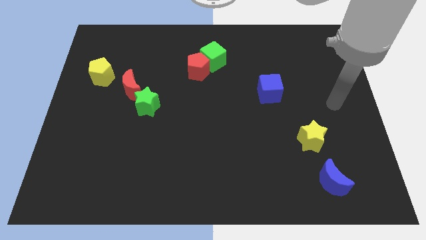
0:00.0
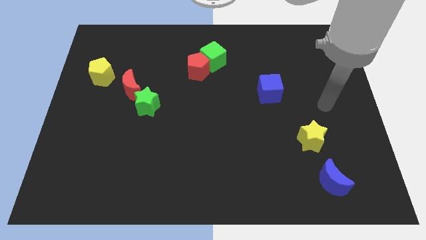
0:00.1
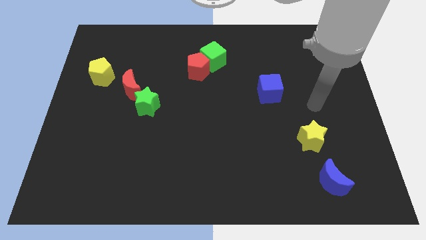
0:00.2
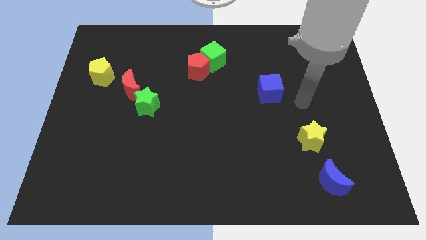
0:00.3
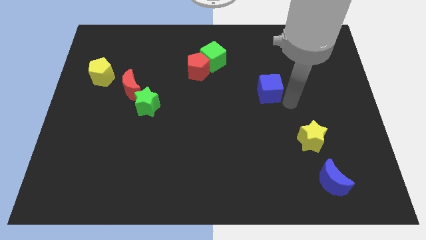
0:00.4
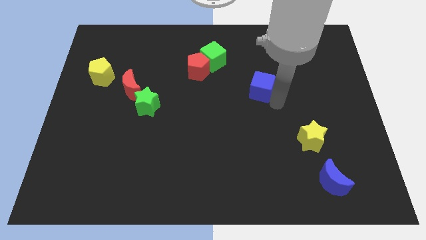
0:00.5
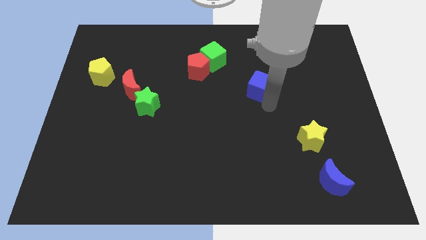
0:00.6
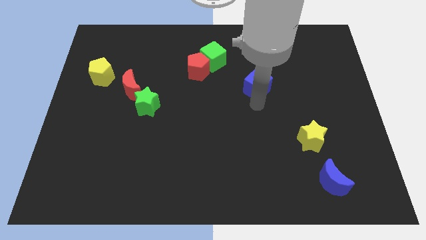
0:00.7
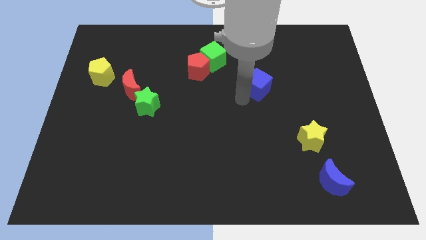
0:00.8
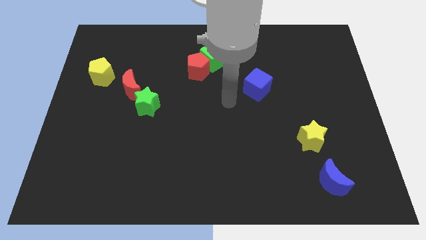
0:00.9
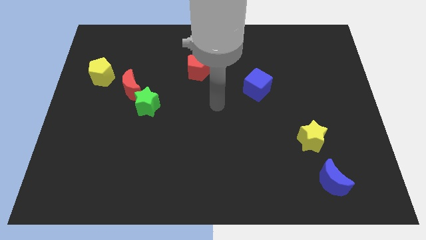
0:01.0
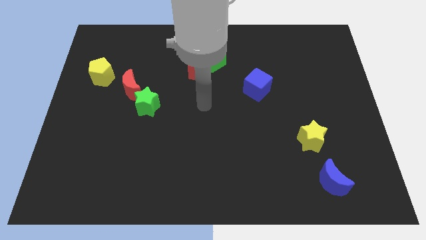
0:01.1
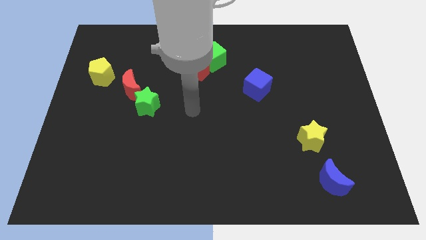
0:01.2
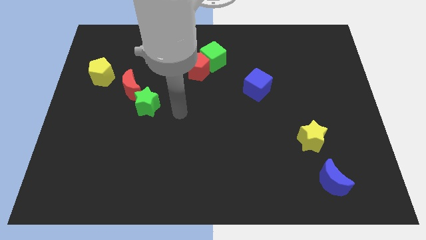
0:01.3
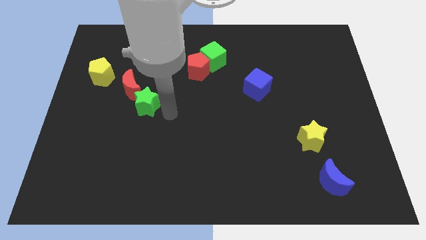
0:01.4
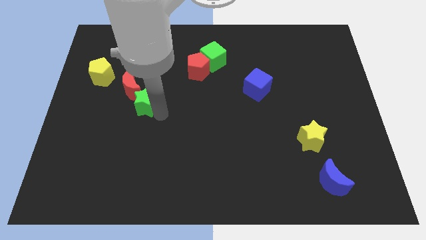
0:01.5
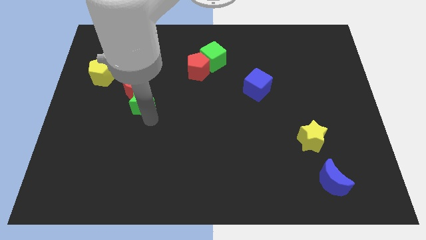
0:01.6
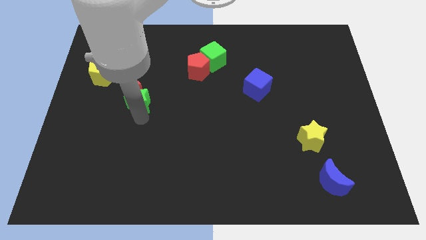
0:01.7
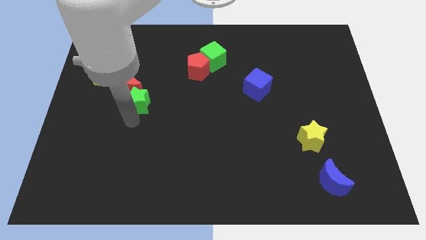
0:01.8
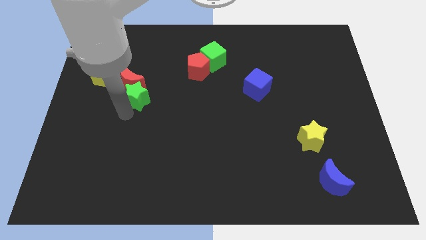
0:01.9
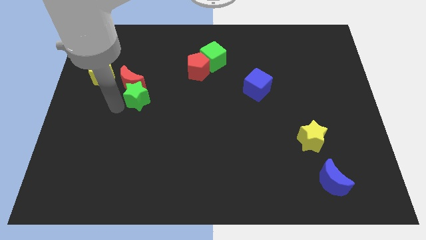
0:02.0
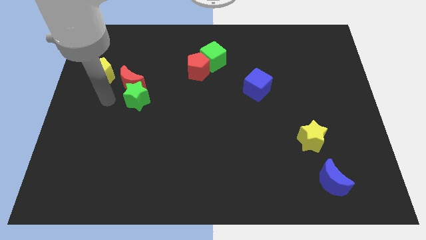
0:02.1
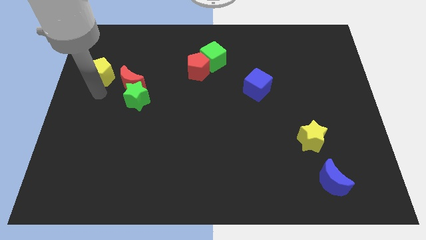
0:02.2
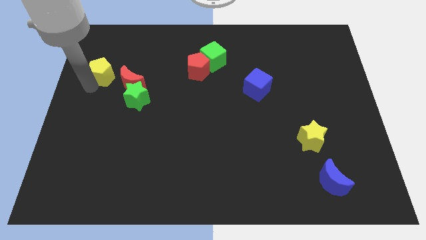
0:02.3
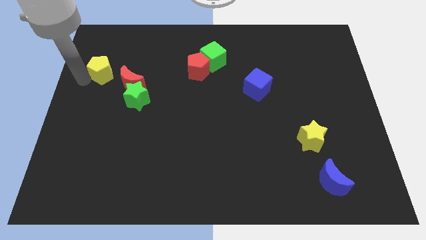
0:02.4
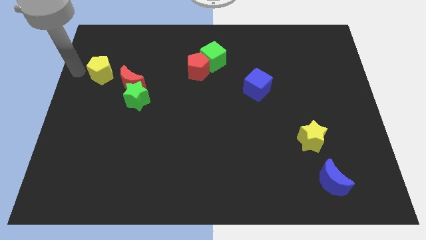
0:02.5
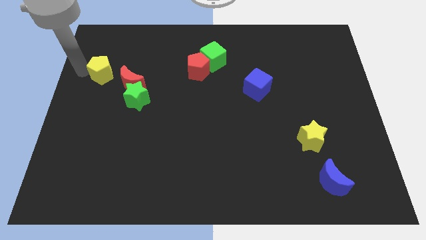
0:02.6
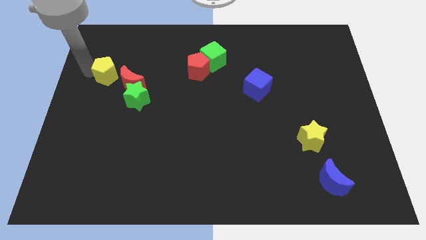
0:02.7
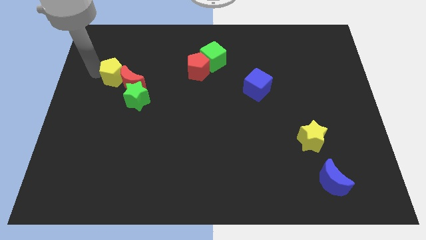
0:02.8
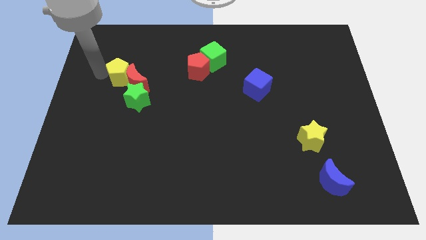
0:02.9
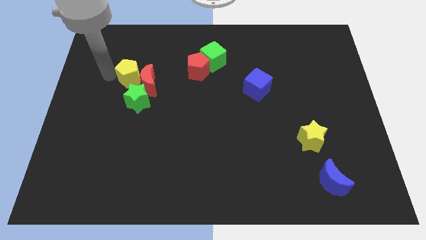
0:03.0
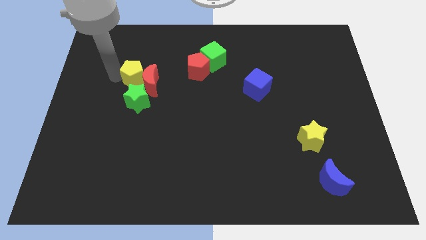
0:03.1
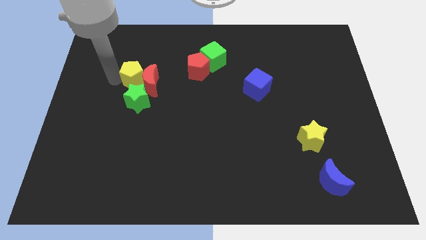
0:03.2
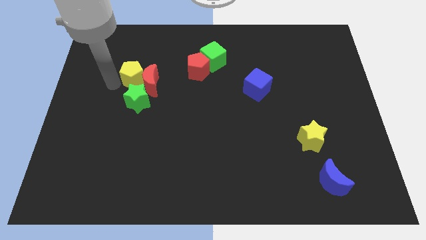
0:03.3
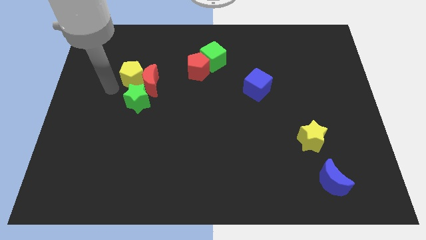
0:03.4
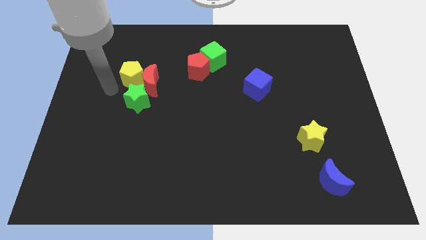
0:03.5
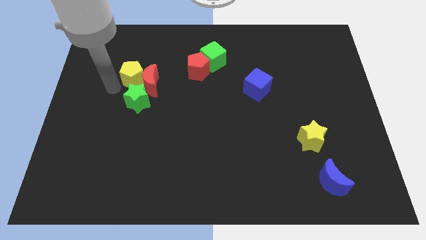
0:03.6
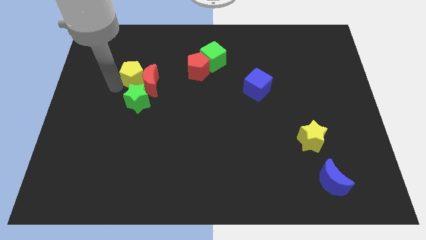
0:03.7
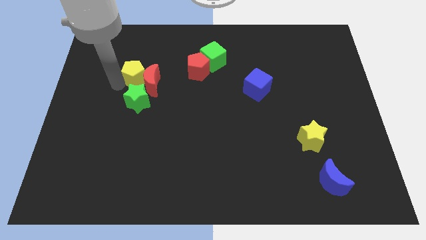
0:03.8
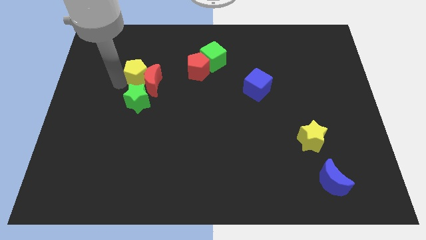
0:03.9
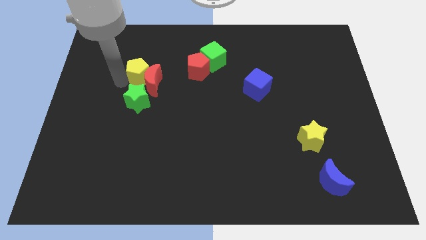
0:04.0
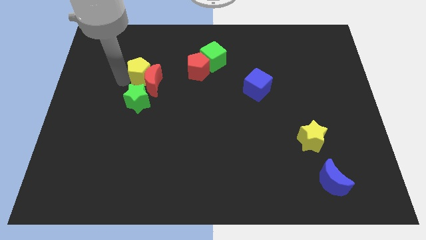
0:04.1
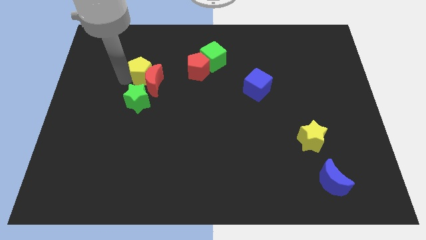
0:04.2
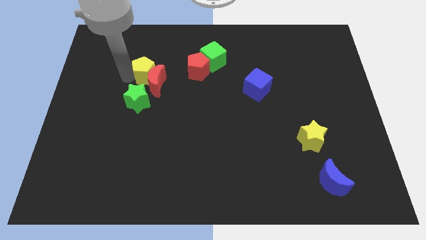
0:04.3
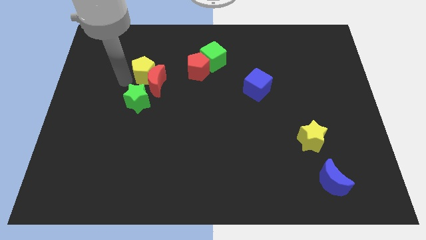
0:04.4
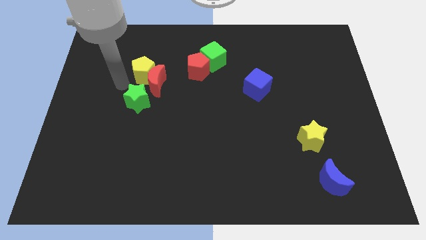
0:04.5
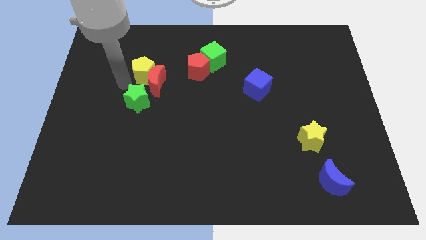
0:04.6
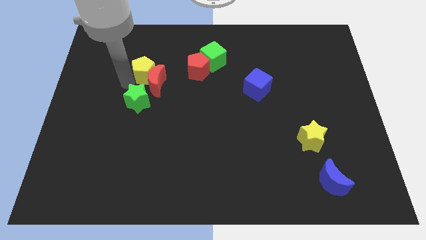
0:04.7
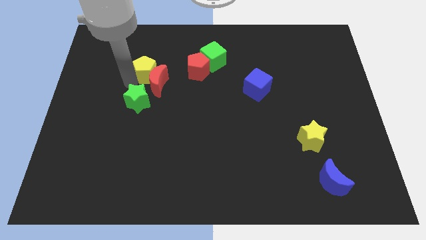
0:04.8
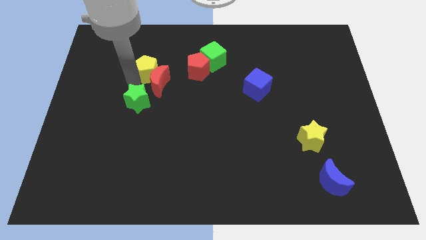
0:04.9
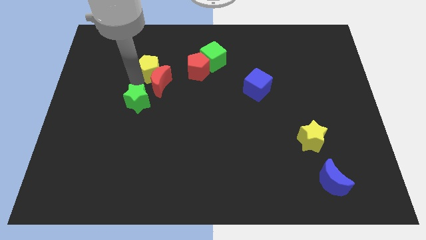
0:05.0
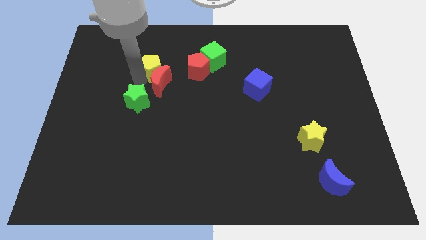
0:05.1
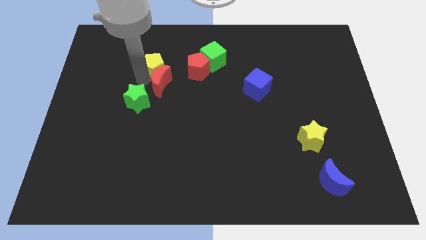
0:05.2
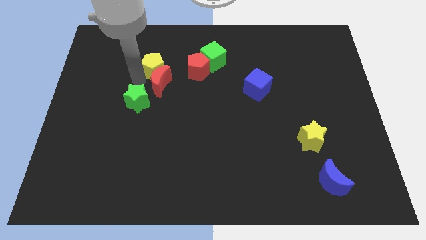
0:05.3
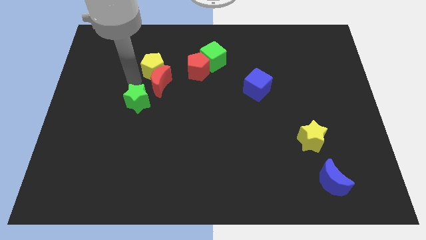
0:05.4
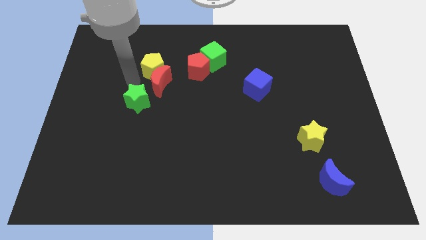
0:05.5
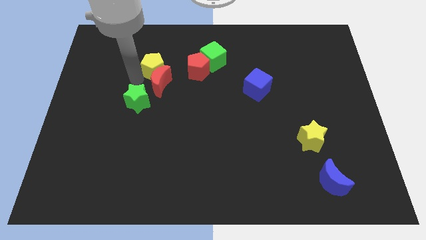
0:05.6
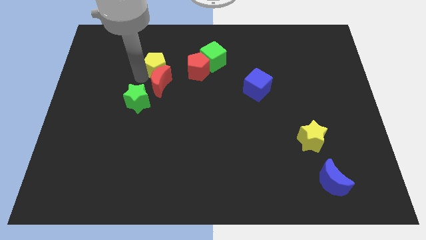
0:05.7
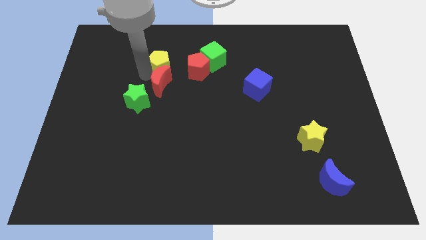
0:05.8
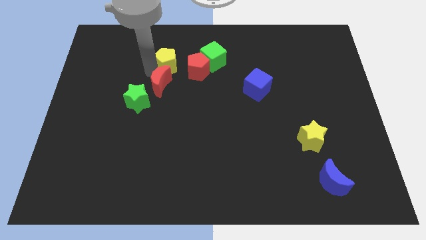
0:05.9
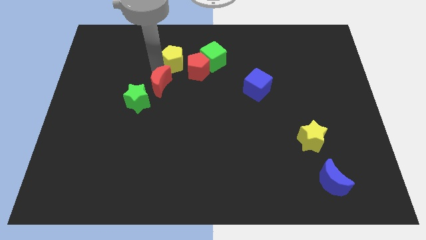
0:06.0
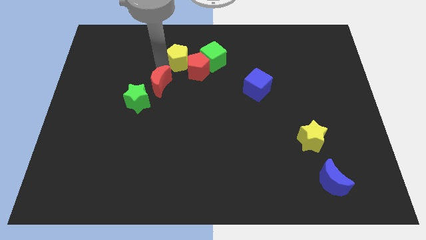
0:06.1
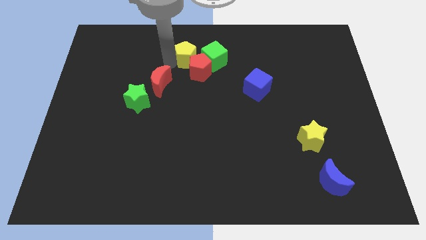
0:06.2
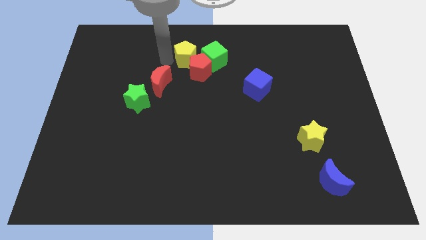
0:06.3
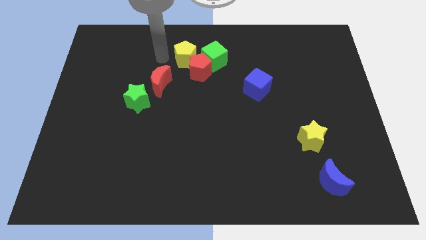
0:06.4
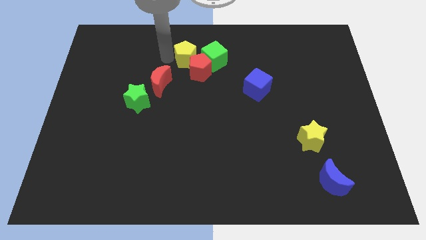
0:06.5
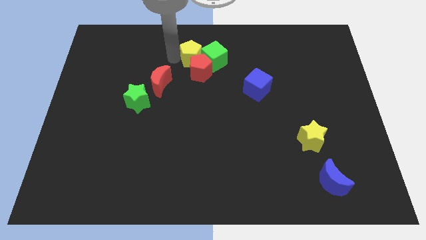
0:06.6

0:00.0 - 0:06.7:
put the yellow pentagon close to the green cube

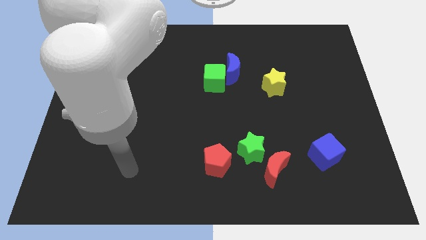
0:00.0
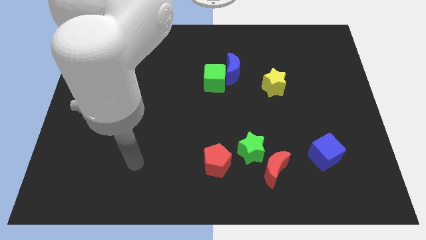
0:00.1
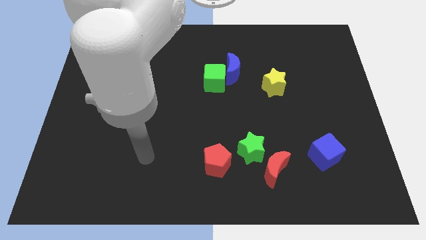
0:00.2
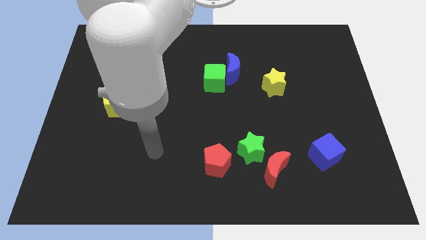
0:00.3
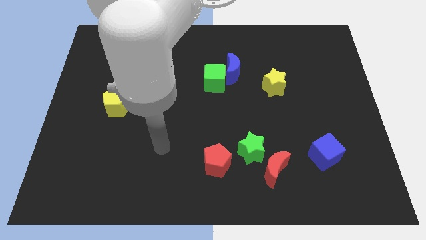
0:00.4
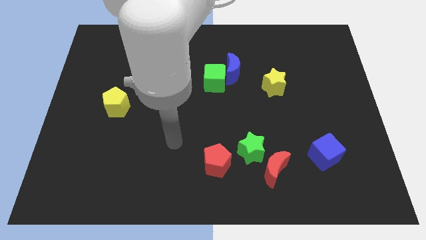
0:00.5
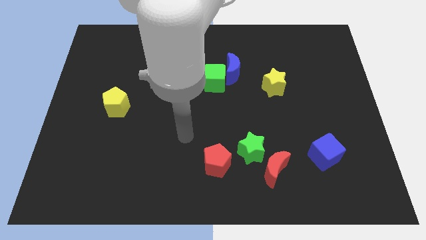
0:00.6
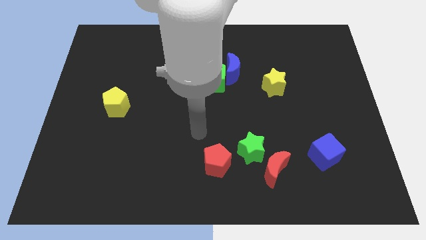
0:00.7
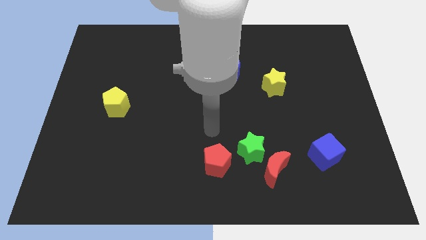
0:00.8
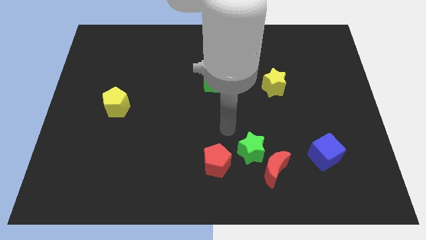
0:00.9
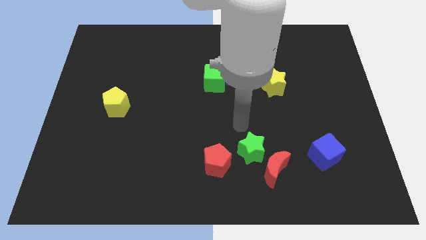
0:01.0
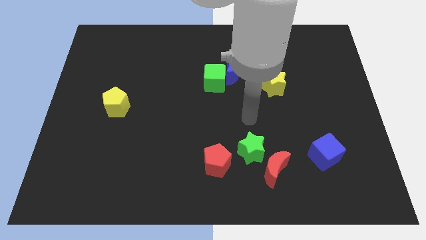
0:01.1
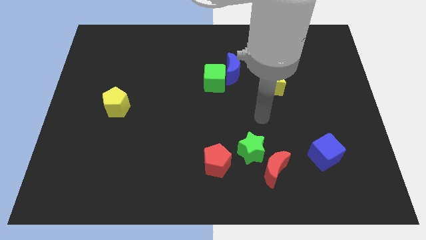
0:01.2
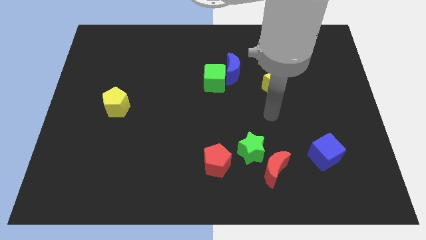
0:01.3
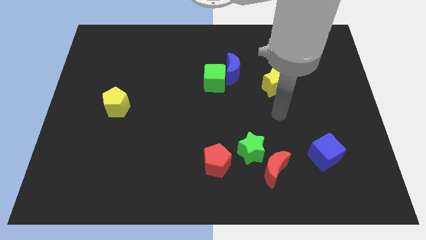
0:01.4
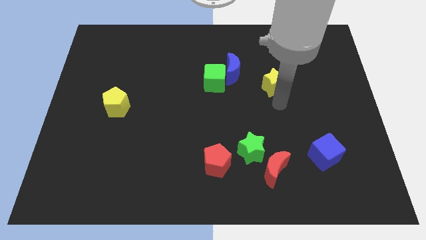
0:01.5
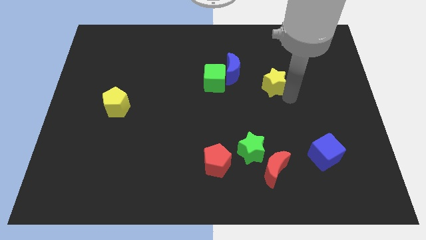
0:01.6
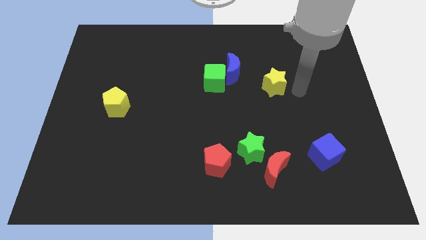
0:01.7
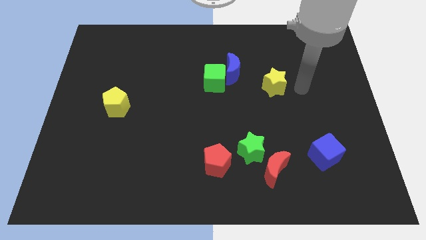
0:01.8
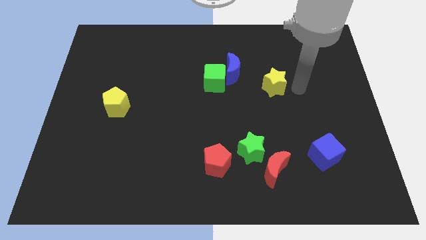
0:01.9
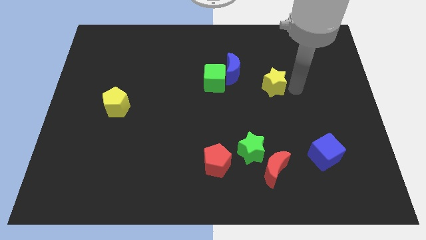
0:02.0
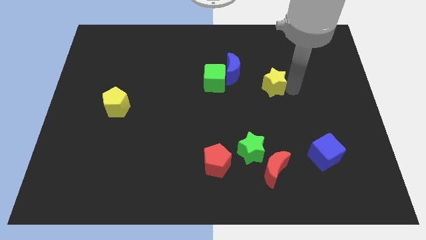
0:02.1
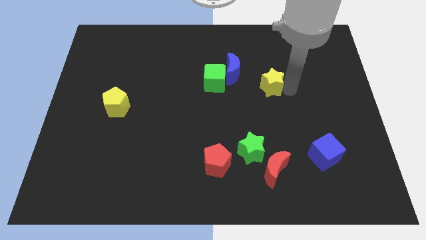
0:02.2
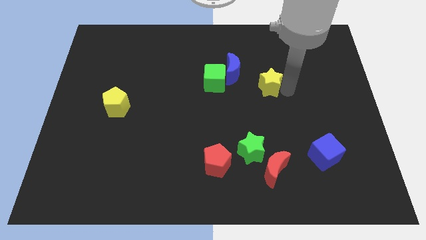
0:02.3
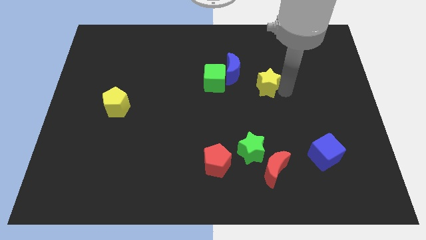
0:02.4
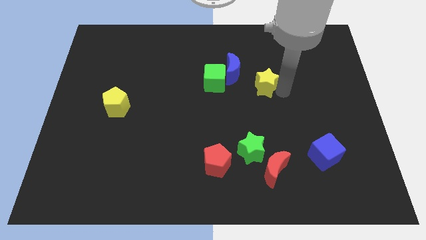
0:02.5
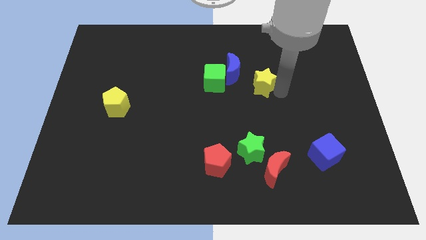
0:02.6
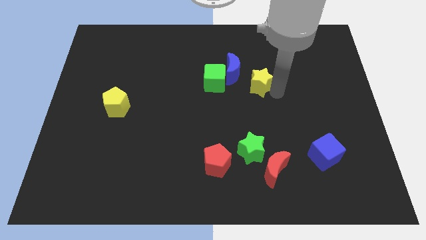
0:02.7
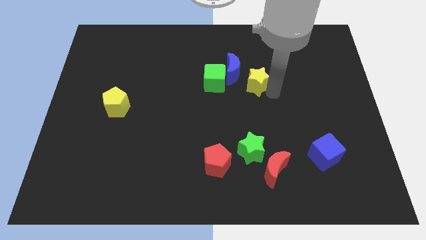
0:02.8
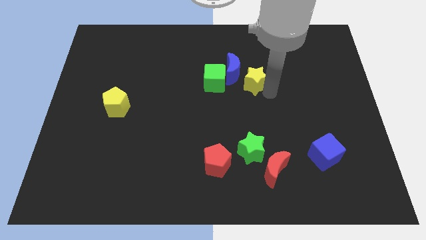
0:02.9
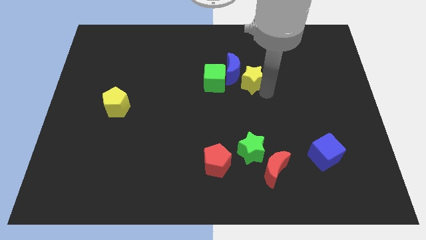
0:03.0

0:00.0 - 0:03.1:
push the yellow star to the blue moon
